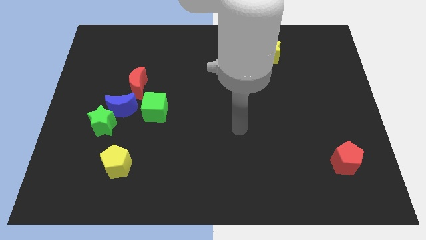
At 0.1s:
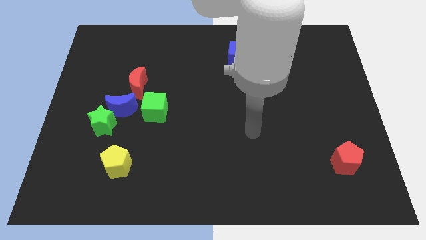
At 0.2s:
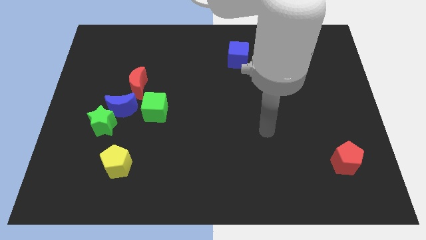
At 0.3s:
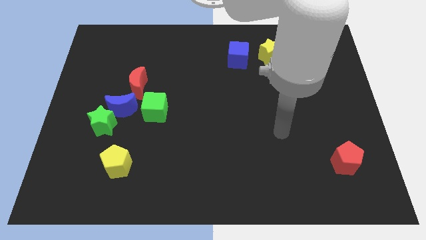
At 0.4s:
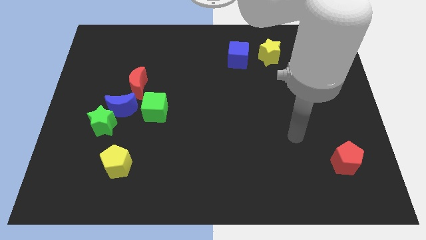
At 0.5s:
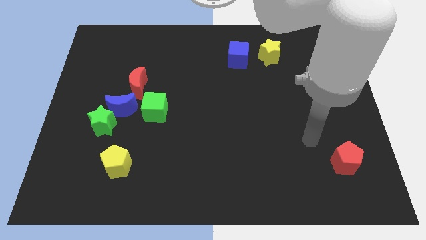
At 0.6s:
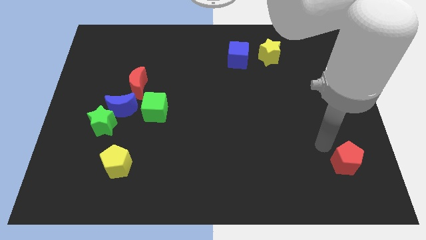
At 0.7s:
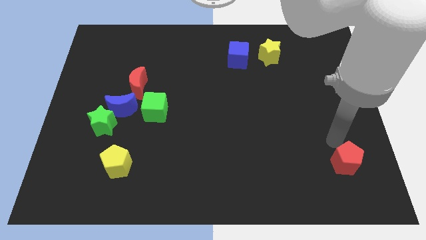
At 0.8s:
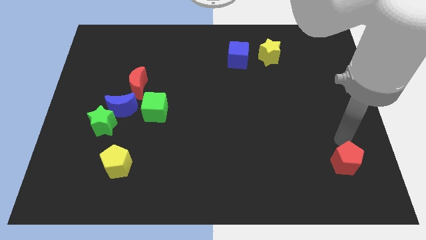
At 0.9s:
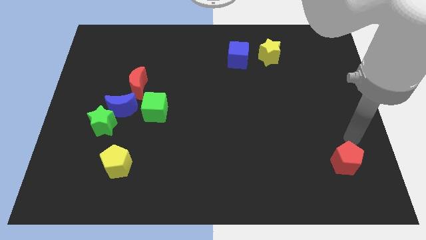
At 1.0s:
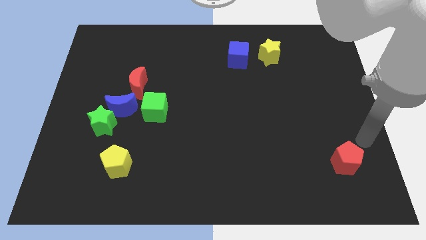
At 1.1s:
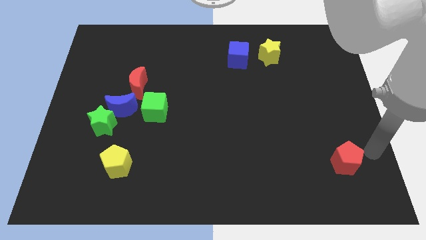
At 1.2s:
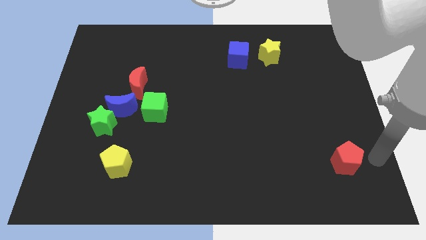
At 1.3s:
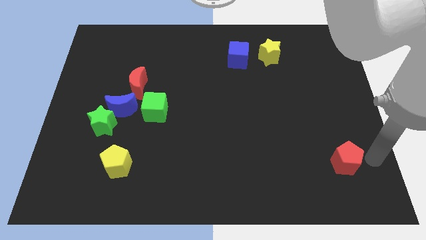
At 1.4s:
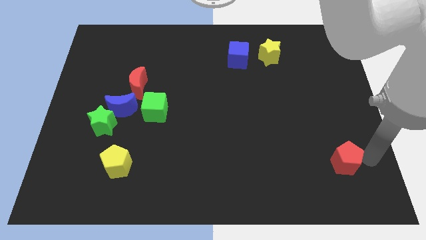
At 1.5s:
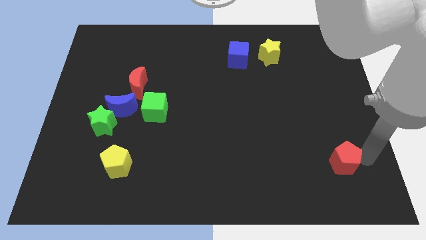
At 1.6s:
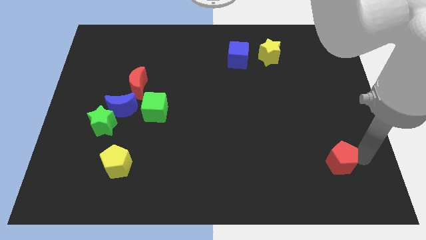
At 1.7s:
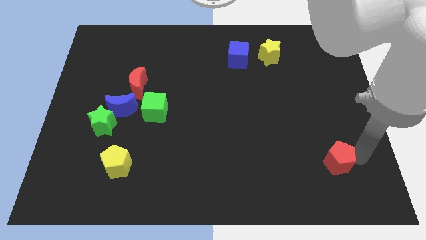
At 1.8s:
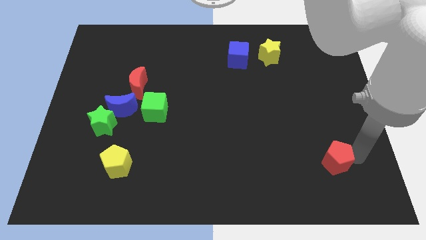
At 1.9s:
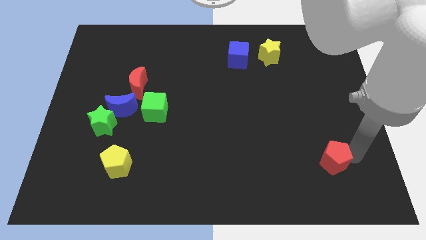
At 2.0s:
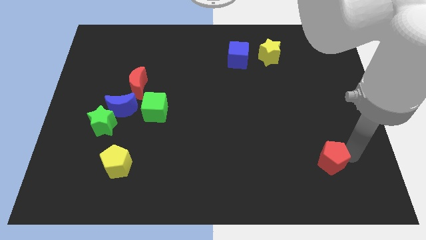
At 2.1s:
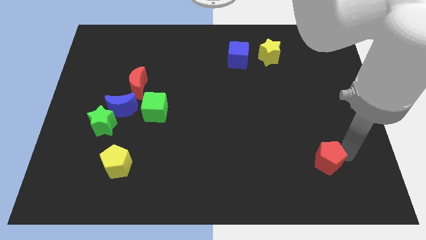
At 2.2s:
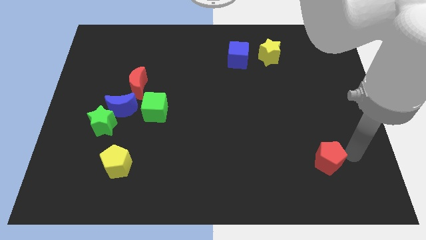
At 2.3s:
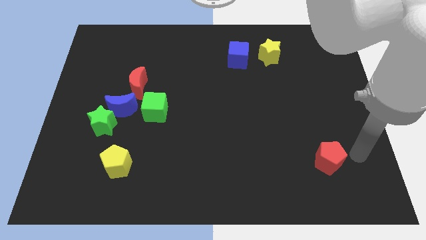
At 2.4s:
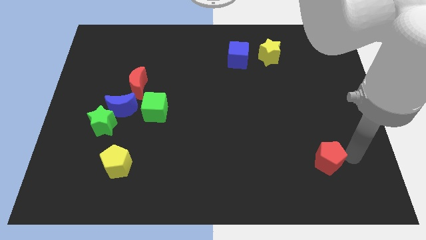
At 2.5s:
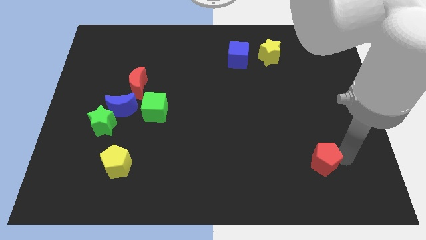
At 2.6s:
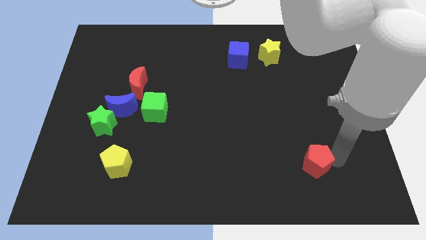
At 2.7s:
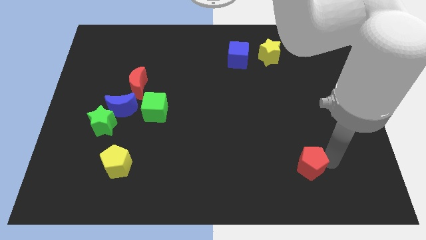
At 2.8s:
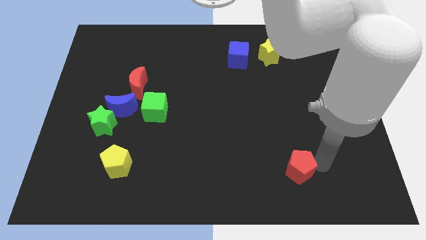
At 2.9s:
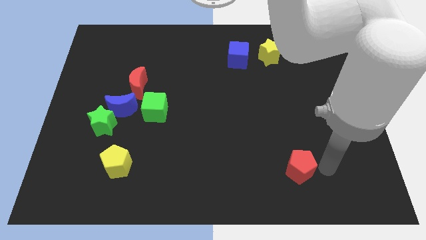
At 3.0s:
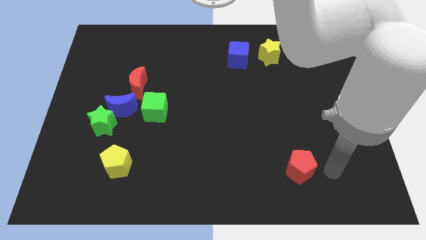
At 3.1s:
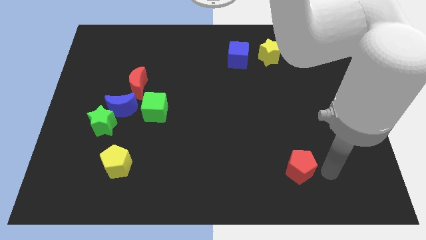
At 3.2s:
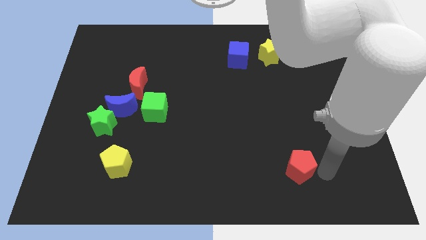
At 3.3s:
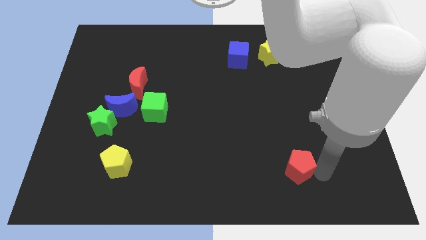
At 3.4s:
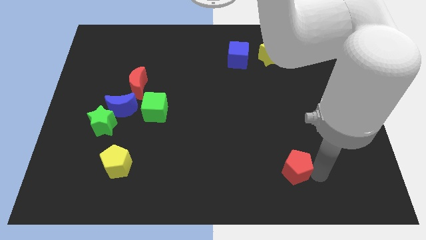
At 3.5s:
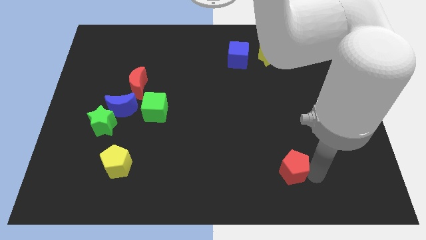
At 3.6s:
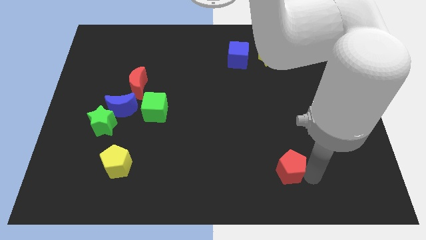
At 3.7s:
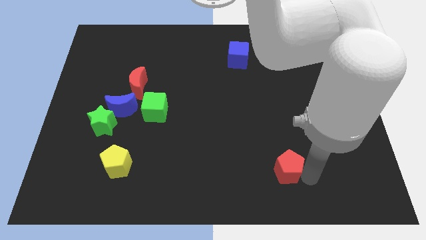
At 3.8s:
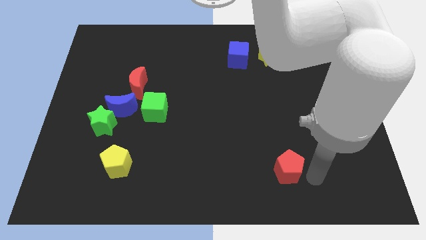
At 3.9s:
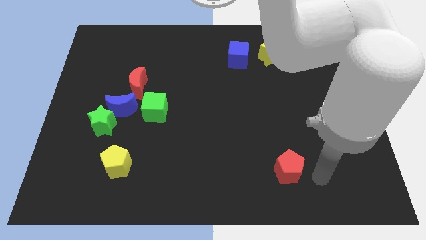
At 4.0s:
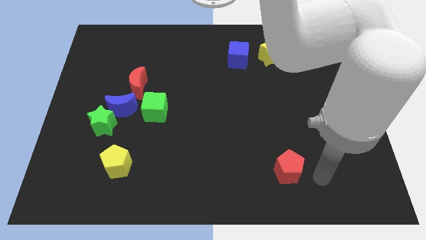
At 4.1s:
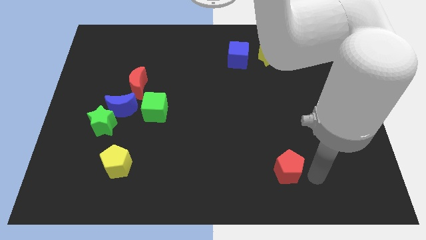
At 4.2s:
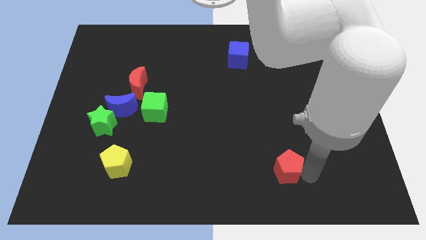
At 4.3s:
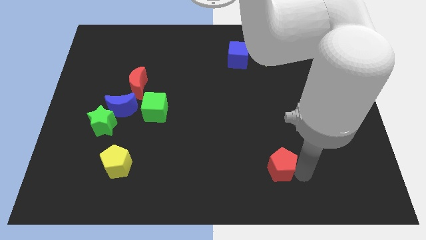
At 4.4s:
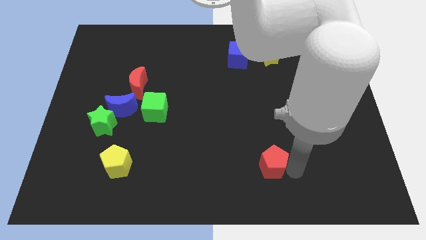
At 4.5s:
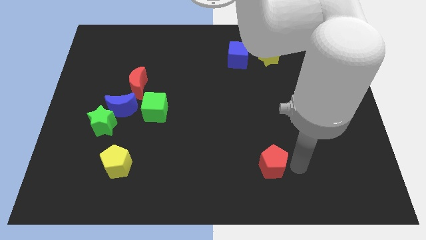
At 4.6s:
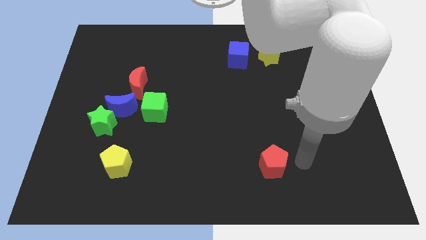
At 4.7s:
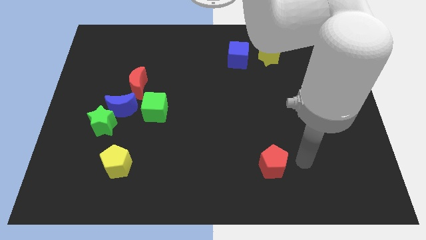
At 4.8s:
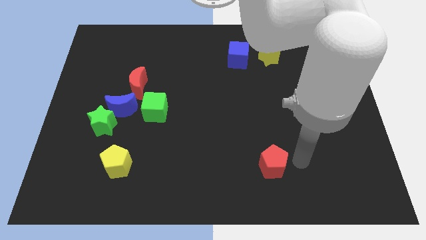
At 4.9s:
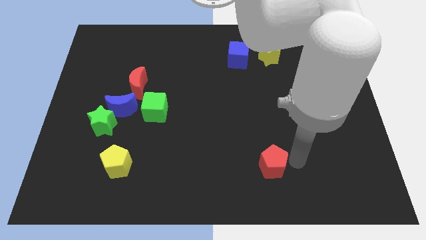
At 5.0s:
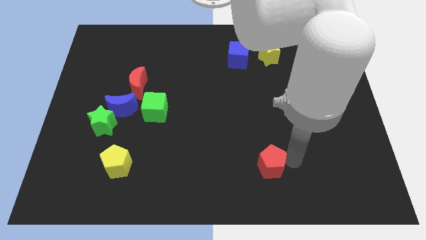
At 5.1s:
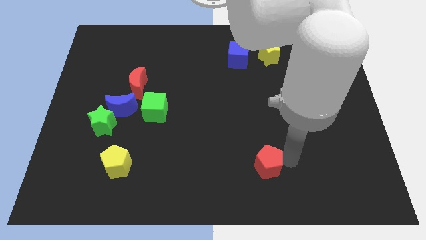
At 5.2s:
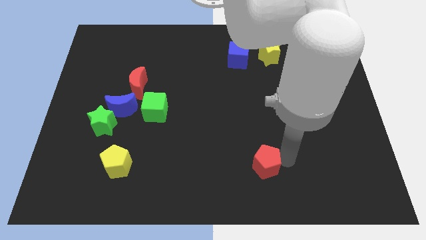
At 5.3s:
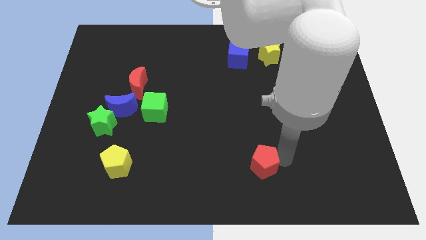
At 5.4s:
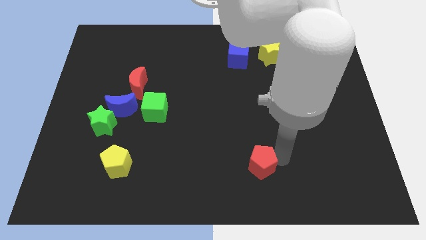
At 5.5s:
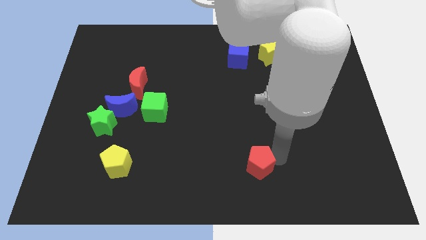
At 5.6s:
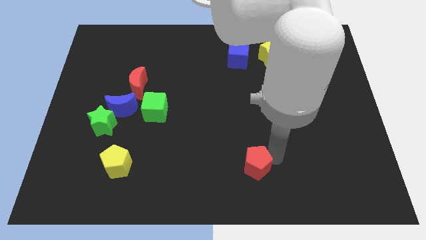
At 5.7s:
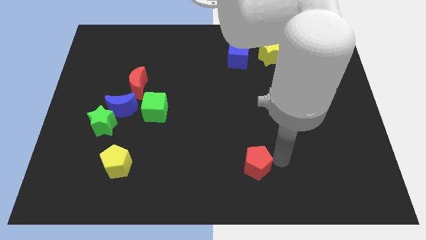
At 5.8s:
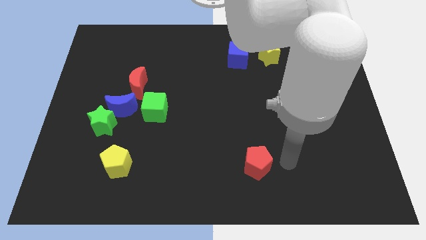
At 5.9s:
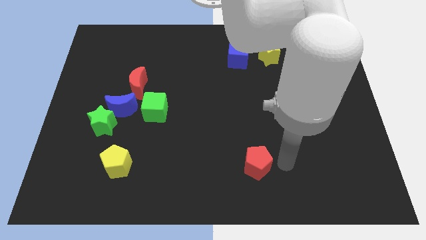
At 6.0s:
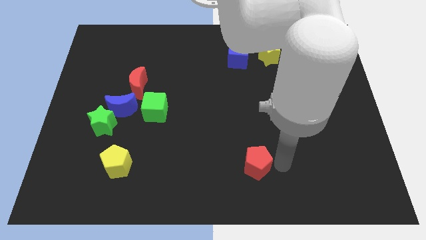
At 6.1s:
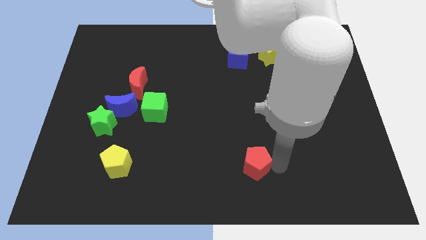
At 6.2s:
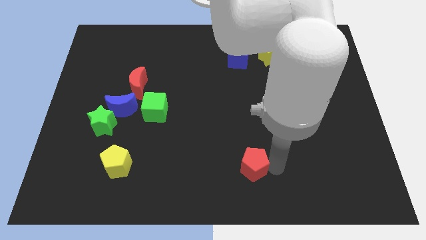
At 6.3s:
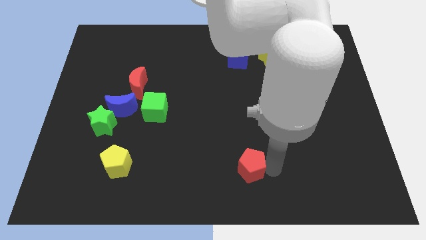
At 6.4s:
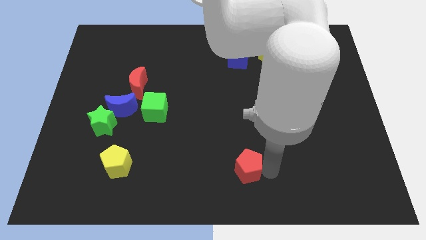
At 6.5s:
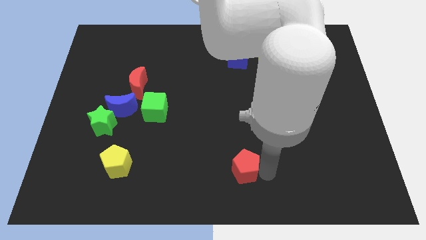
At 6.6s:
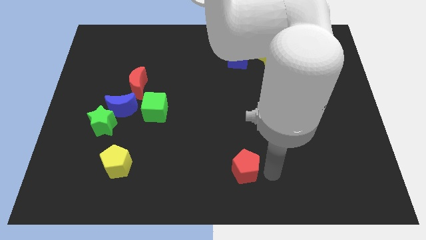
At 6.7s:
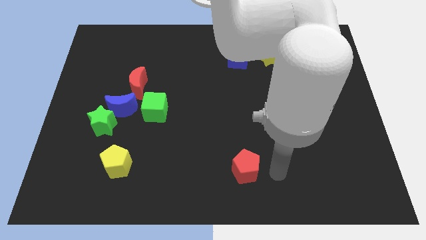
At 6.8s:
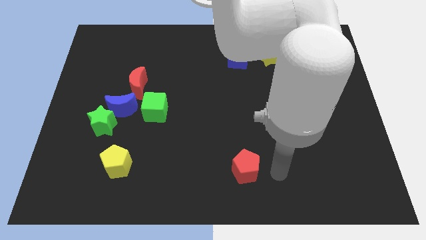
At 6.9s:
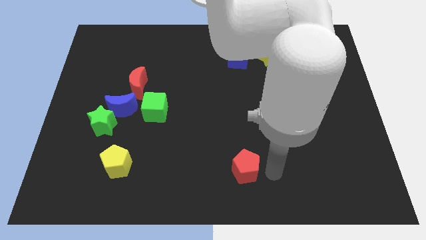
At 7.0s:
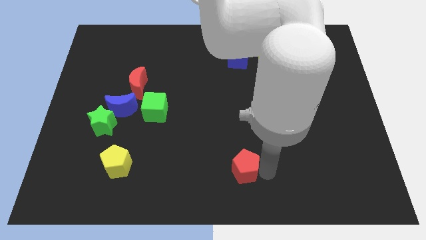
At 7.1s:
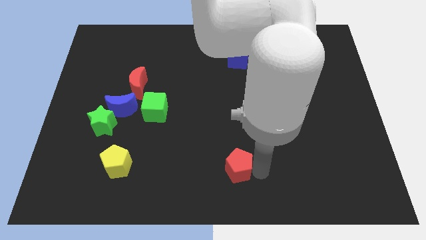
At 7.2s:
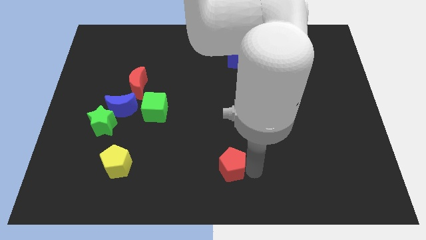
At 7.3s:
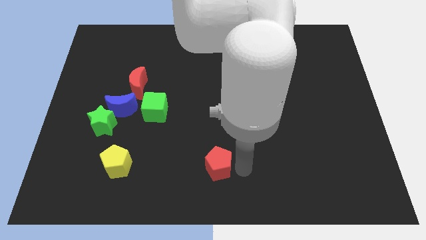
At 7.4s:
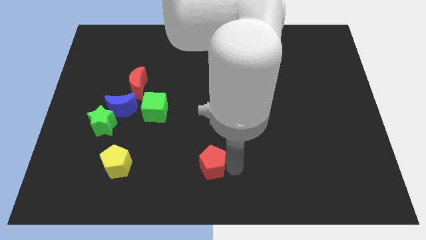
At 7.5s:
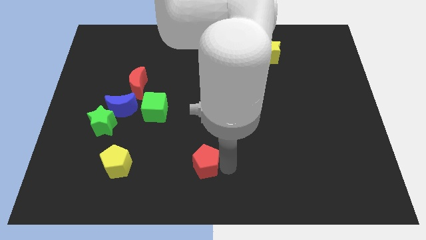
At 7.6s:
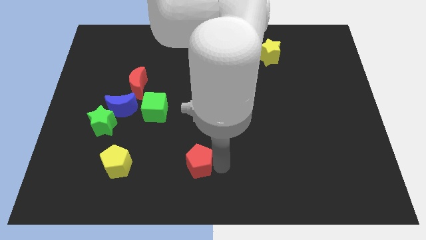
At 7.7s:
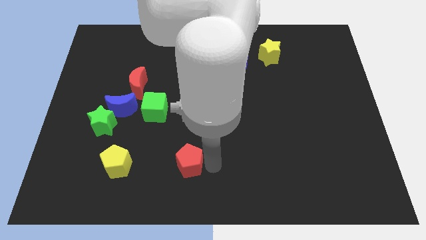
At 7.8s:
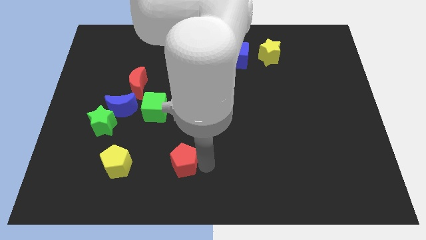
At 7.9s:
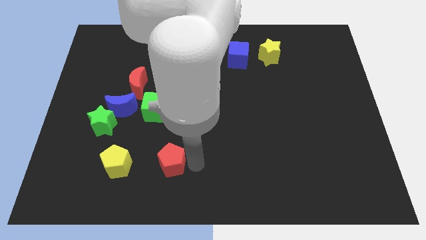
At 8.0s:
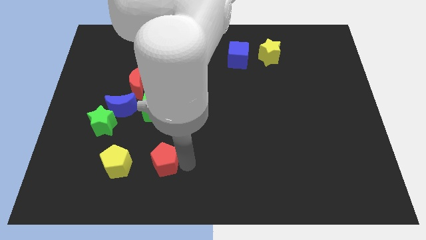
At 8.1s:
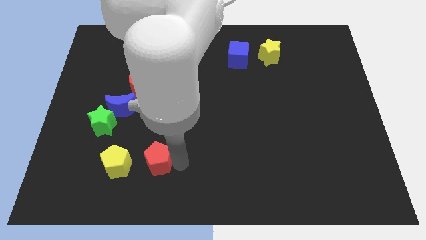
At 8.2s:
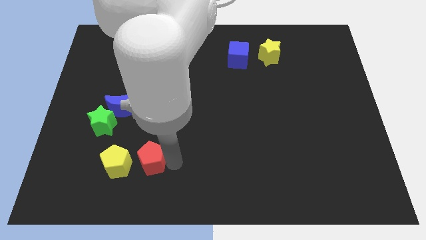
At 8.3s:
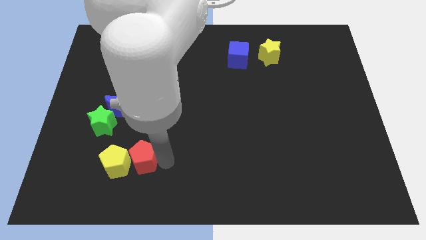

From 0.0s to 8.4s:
slide the red pentagon towards the yellow pentagon
